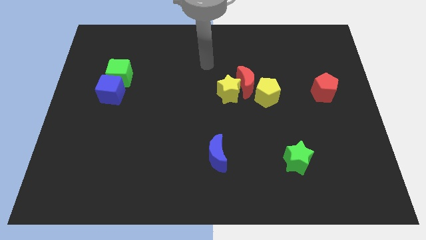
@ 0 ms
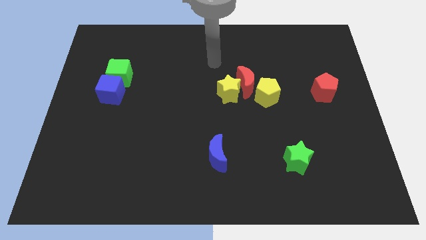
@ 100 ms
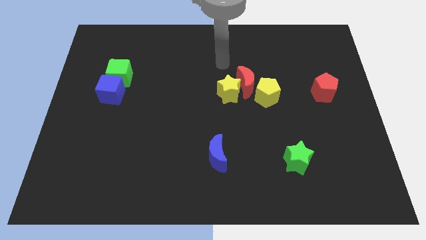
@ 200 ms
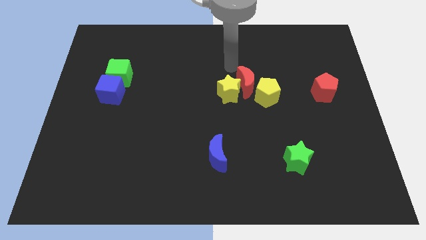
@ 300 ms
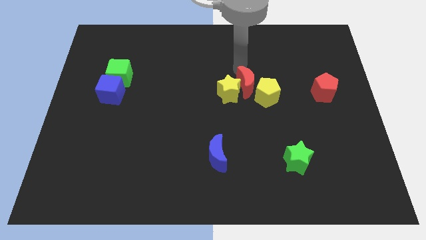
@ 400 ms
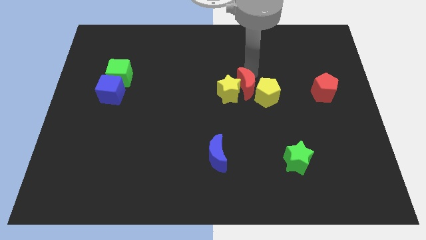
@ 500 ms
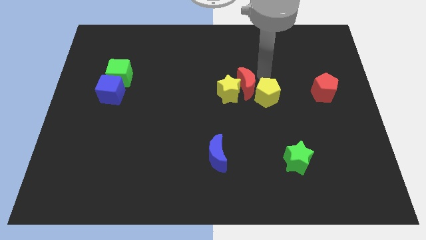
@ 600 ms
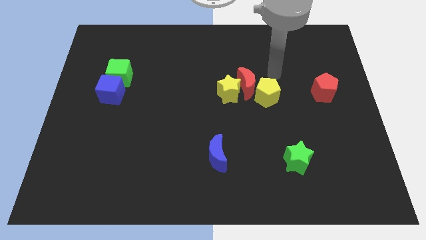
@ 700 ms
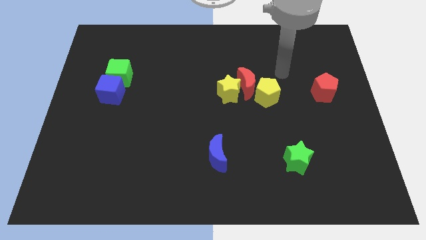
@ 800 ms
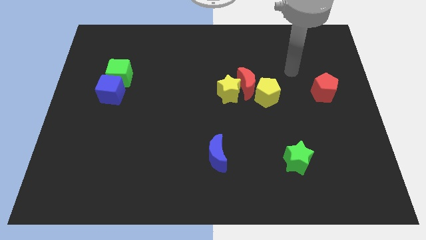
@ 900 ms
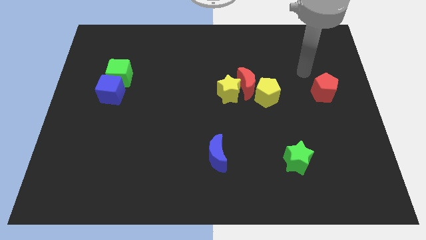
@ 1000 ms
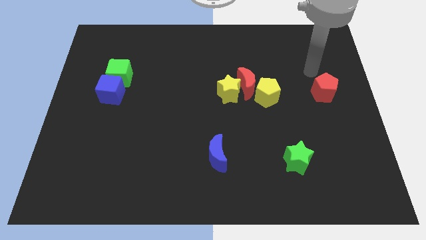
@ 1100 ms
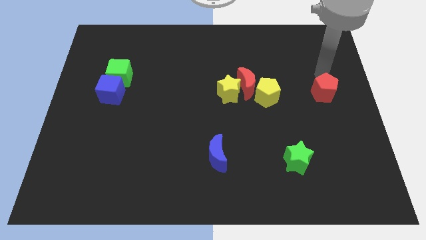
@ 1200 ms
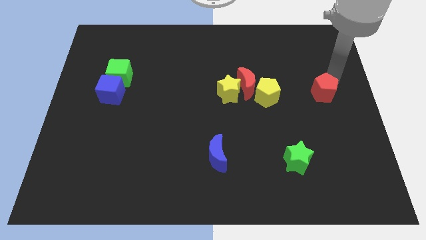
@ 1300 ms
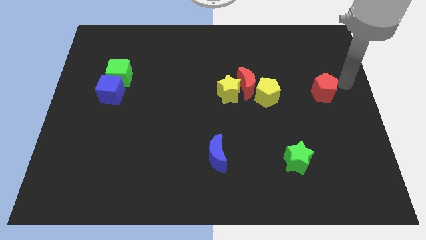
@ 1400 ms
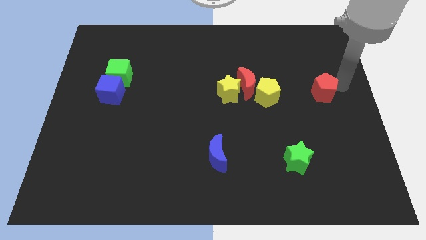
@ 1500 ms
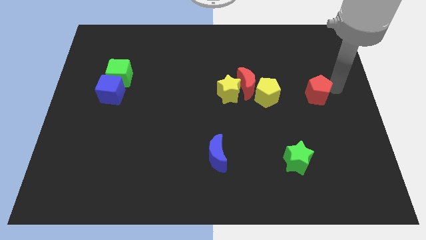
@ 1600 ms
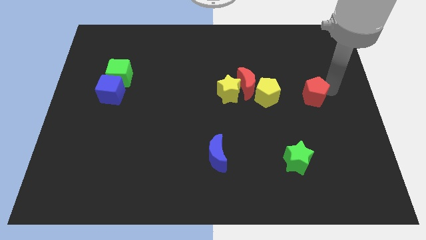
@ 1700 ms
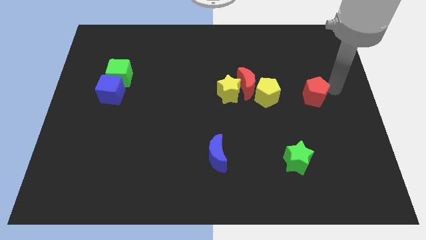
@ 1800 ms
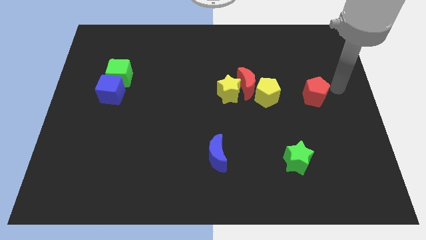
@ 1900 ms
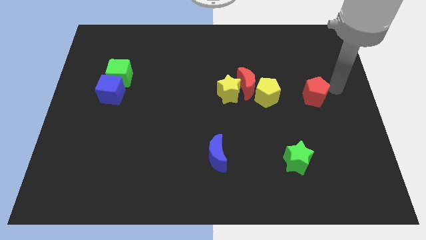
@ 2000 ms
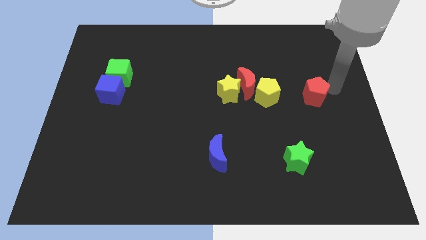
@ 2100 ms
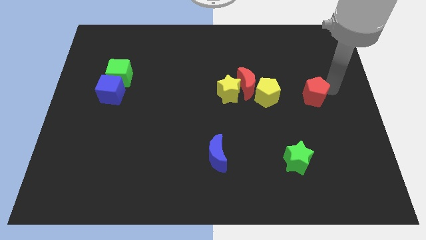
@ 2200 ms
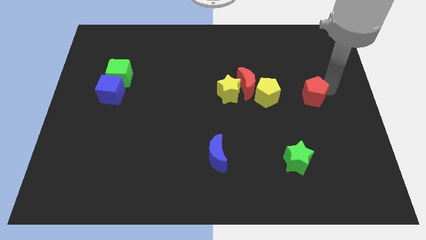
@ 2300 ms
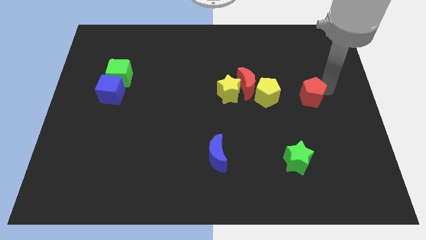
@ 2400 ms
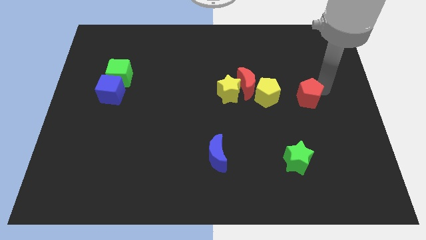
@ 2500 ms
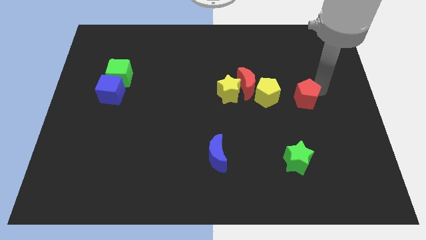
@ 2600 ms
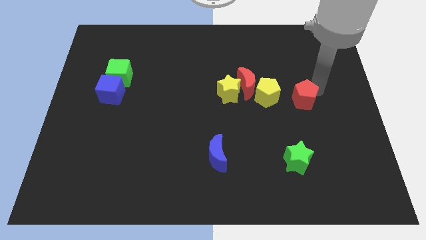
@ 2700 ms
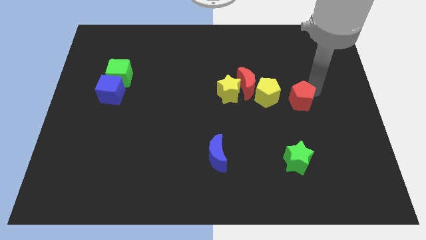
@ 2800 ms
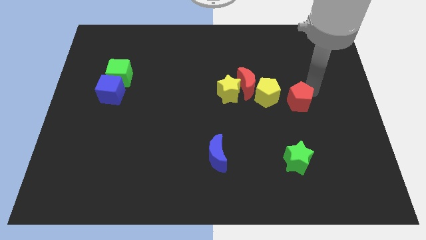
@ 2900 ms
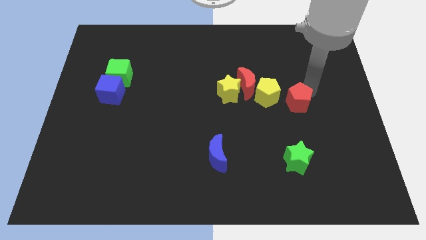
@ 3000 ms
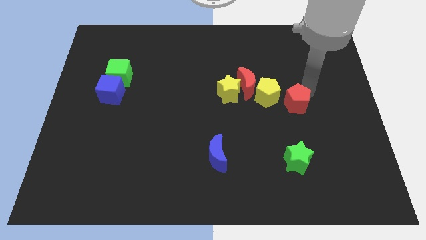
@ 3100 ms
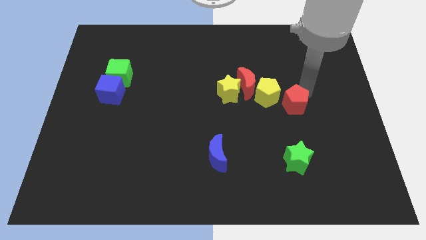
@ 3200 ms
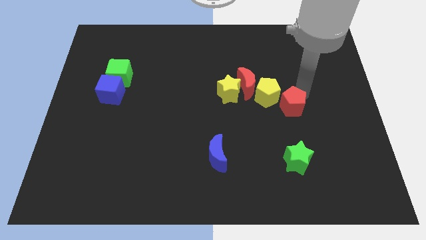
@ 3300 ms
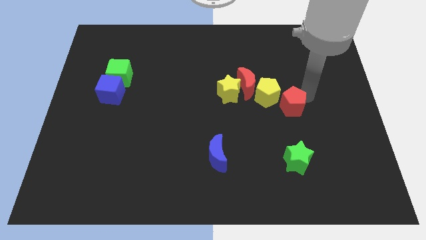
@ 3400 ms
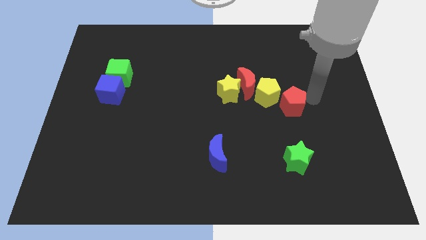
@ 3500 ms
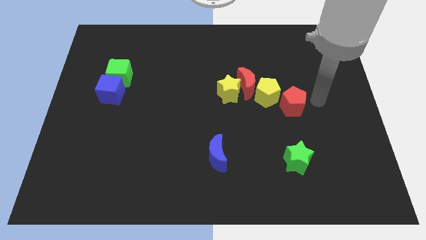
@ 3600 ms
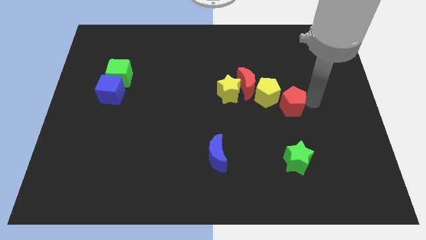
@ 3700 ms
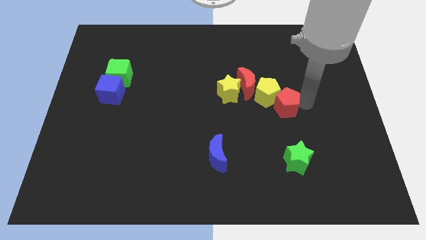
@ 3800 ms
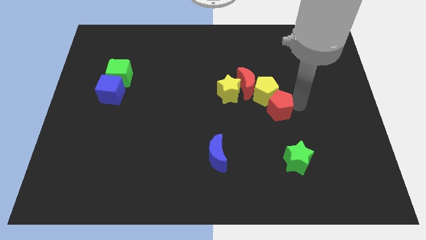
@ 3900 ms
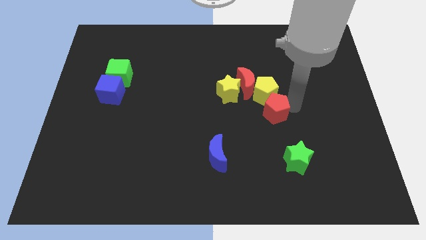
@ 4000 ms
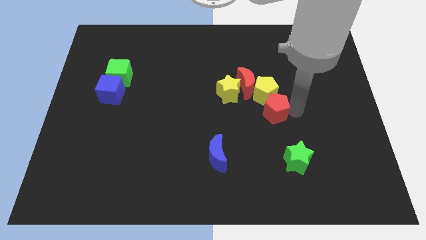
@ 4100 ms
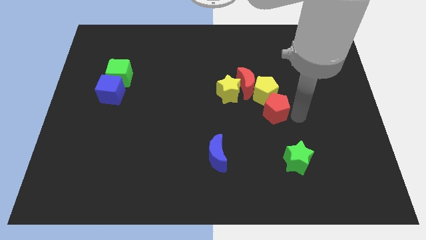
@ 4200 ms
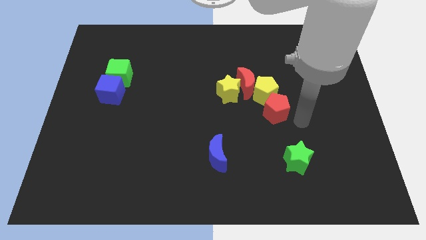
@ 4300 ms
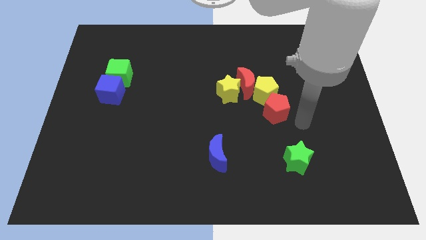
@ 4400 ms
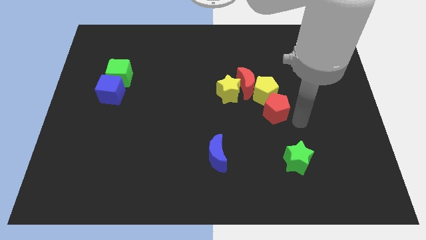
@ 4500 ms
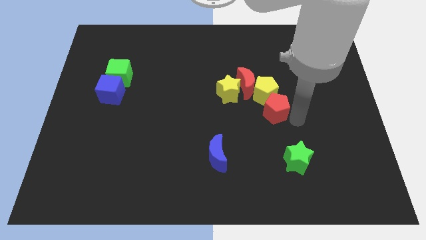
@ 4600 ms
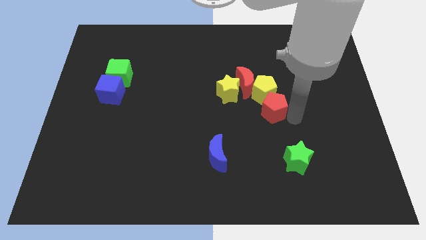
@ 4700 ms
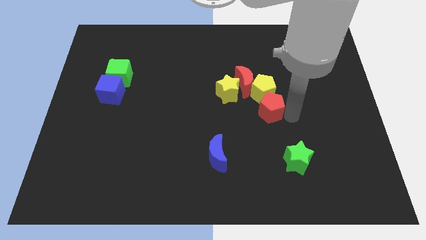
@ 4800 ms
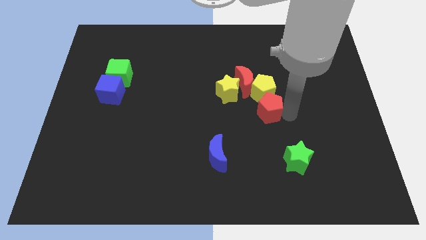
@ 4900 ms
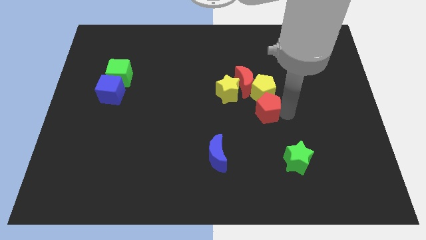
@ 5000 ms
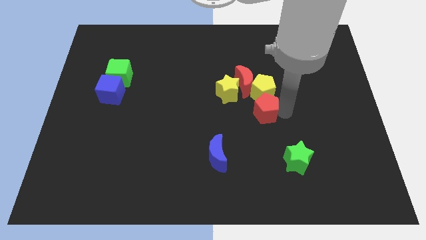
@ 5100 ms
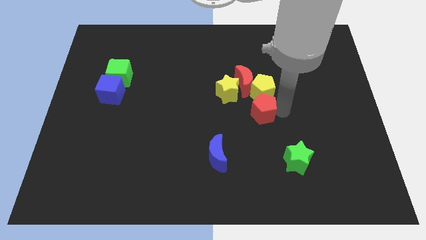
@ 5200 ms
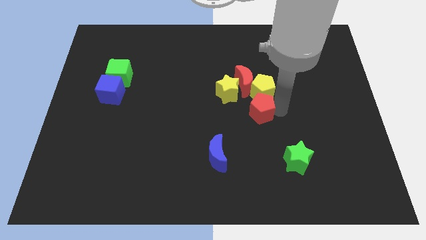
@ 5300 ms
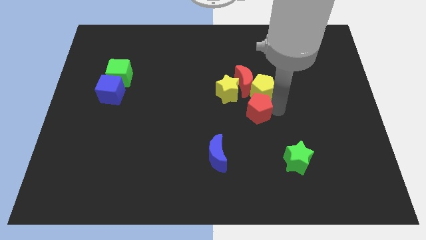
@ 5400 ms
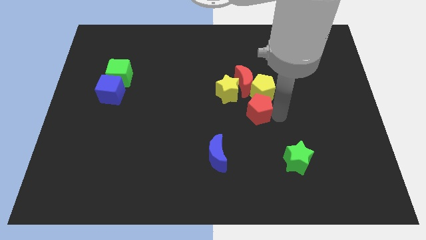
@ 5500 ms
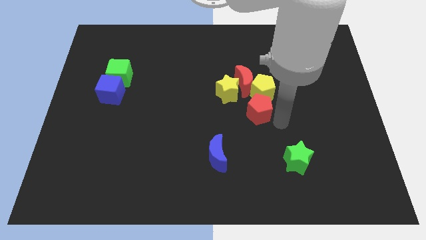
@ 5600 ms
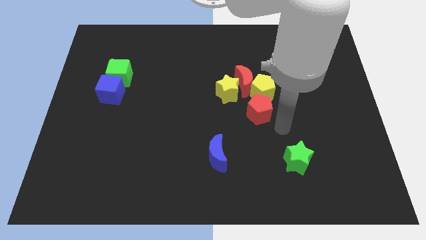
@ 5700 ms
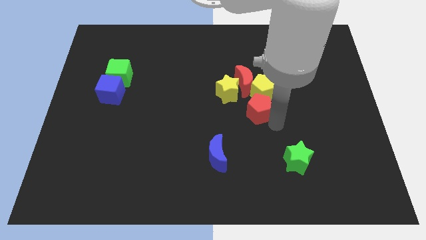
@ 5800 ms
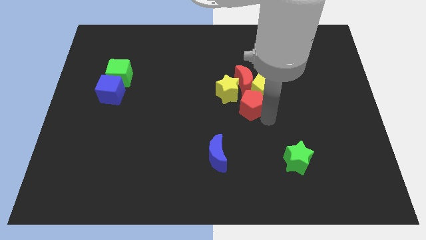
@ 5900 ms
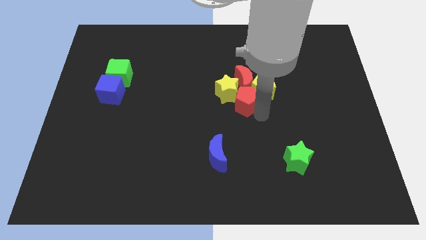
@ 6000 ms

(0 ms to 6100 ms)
move the red pentagon next to the yellow star

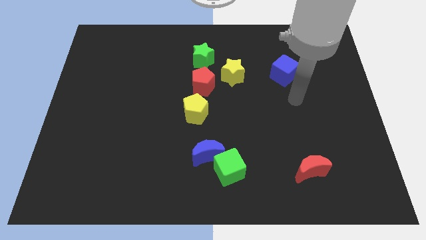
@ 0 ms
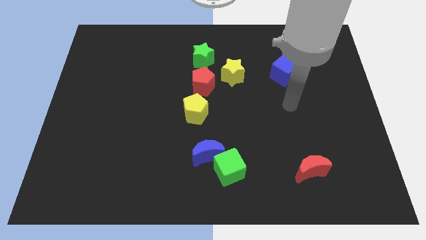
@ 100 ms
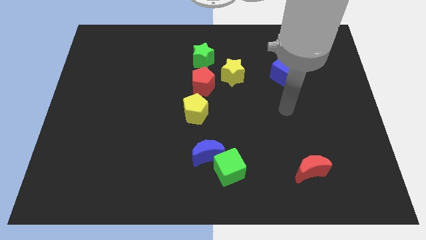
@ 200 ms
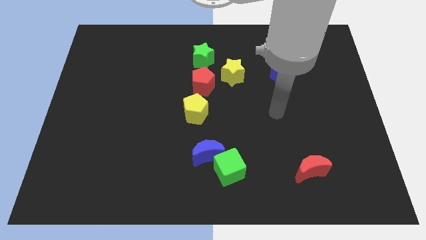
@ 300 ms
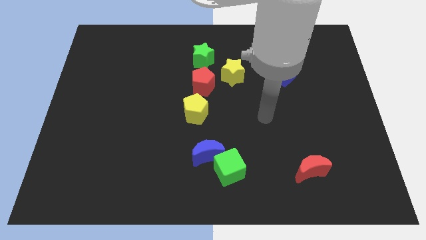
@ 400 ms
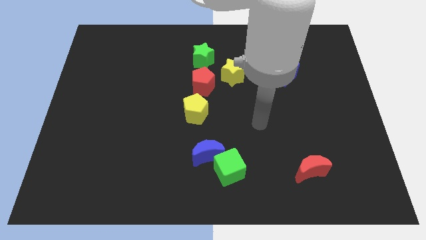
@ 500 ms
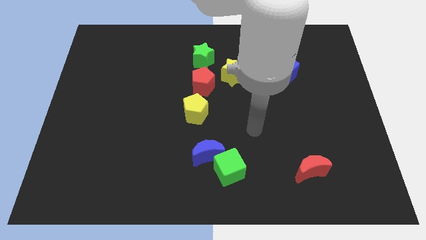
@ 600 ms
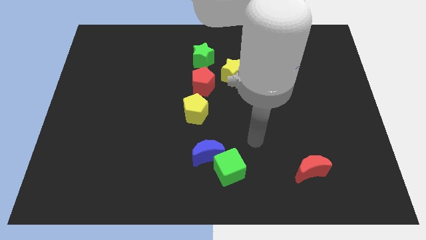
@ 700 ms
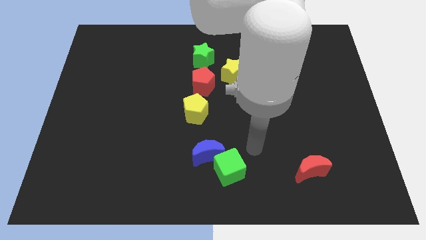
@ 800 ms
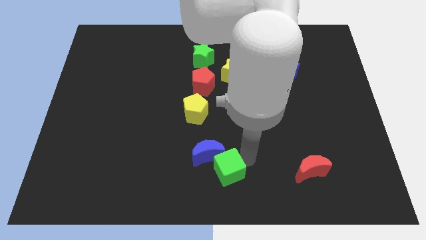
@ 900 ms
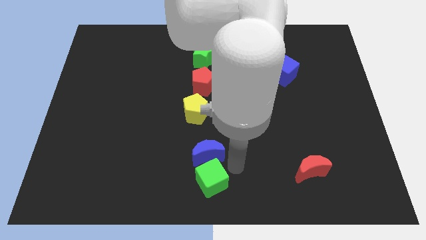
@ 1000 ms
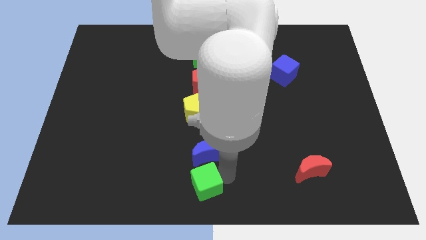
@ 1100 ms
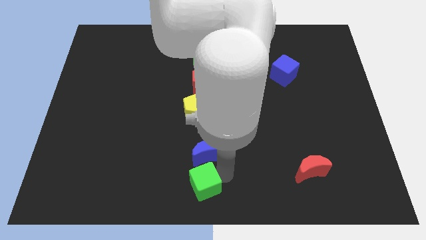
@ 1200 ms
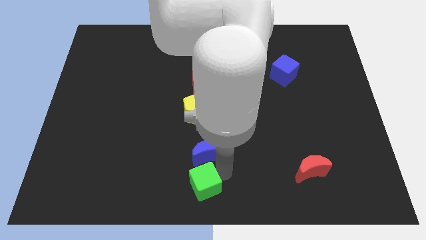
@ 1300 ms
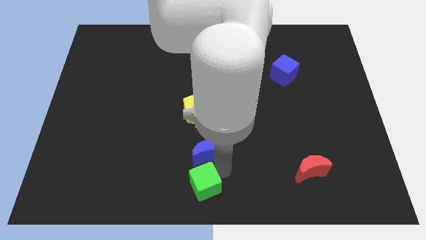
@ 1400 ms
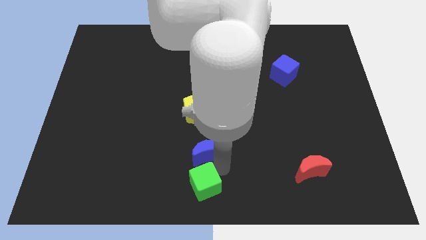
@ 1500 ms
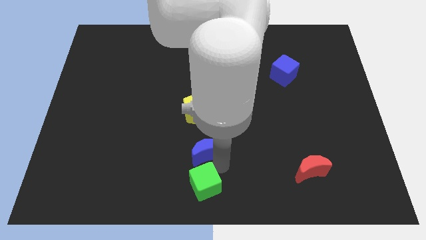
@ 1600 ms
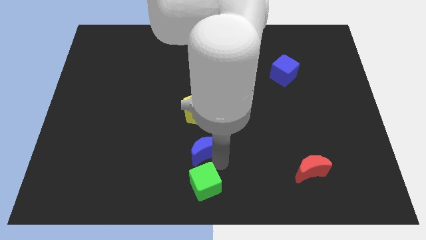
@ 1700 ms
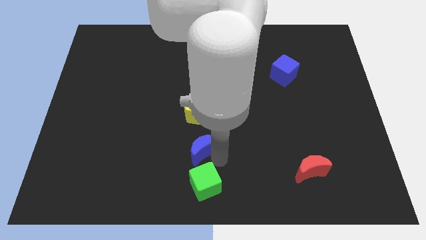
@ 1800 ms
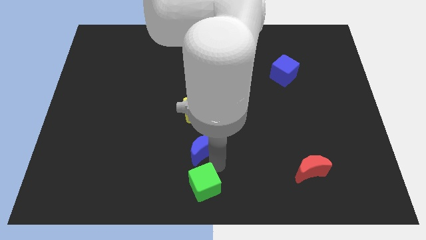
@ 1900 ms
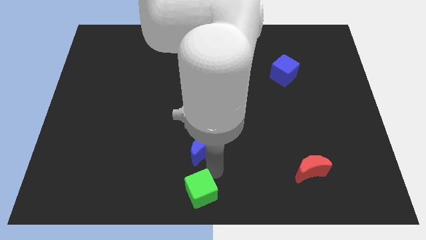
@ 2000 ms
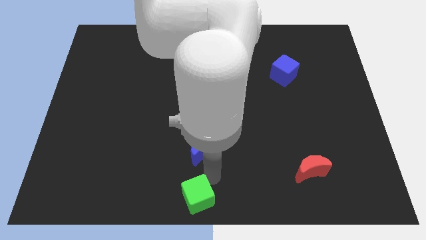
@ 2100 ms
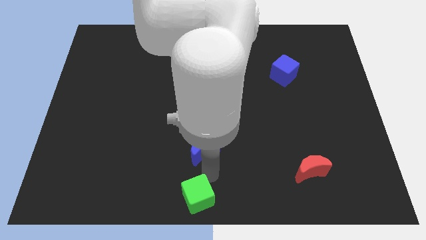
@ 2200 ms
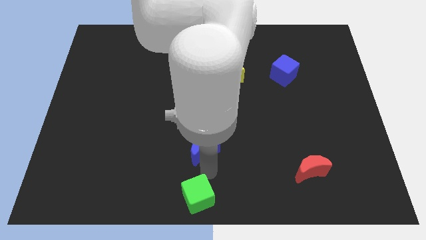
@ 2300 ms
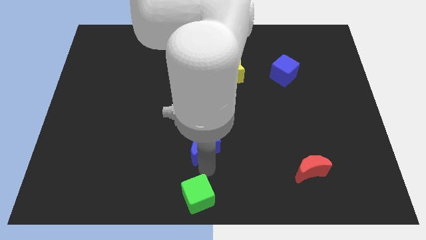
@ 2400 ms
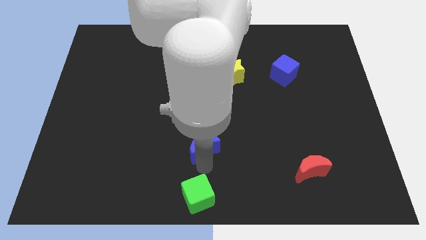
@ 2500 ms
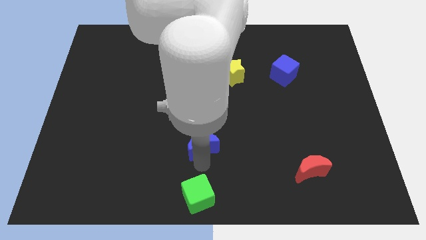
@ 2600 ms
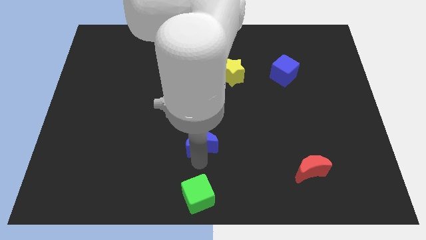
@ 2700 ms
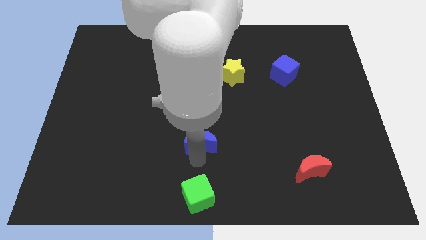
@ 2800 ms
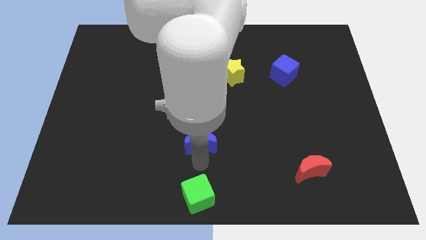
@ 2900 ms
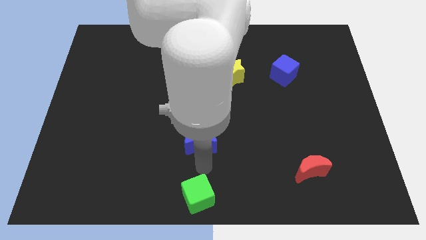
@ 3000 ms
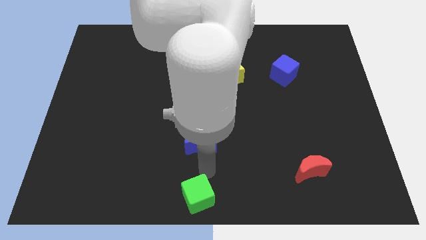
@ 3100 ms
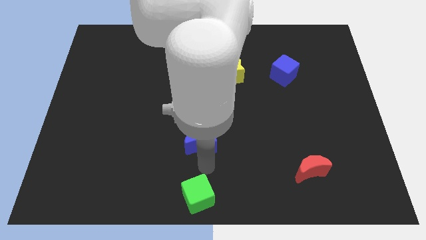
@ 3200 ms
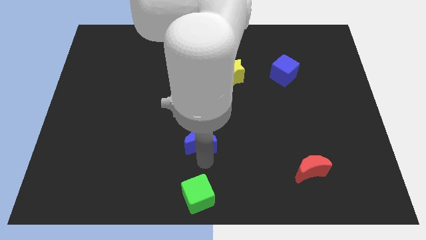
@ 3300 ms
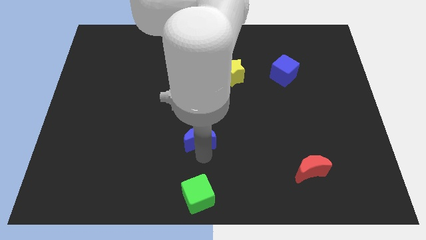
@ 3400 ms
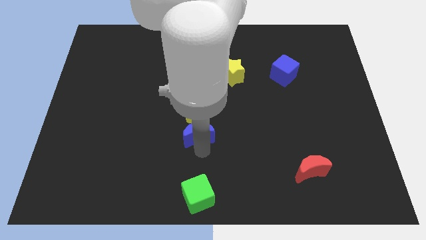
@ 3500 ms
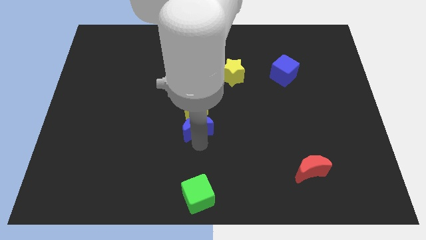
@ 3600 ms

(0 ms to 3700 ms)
move the blue moon towards the yellow pentagon
